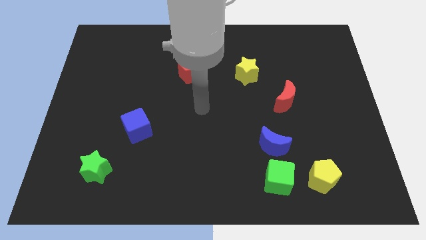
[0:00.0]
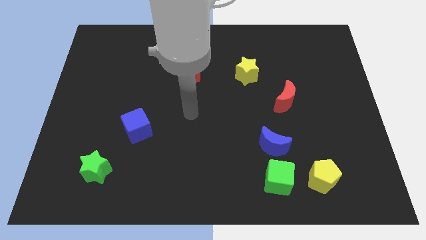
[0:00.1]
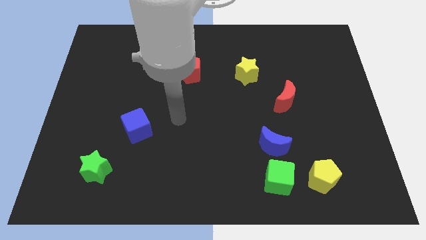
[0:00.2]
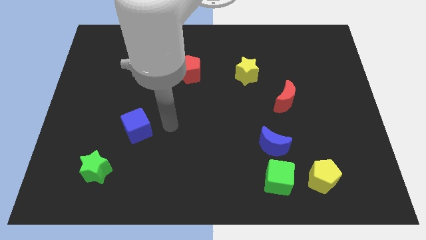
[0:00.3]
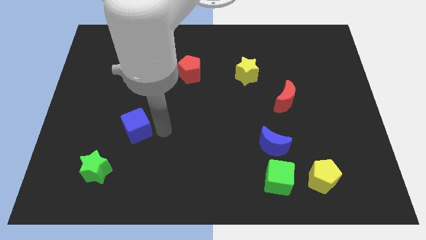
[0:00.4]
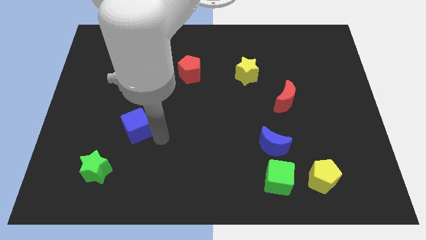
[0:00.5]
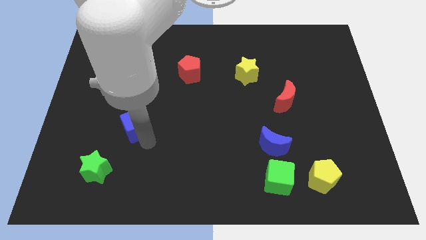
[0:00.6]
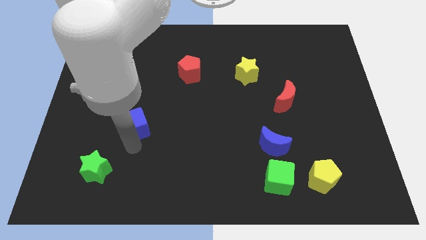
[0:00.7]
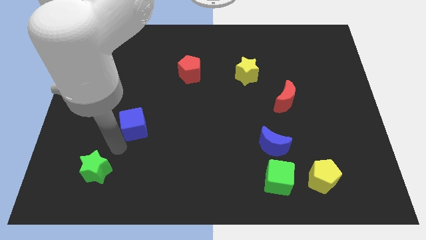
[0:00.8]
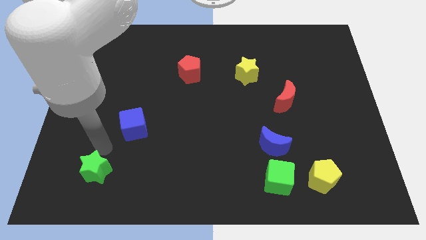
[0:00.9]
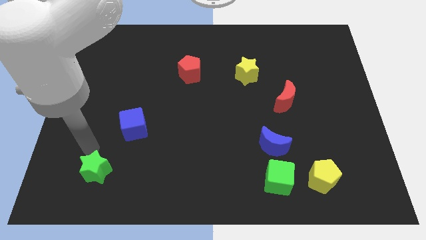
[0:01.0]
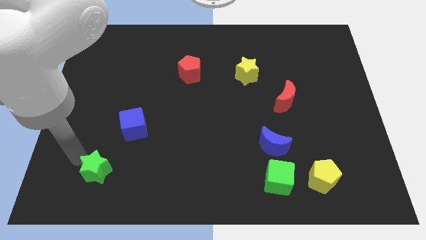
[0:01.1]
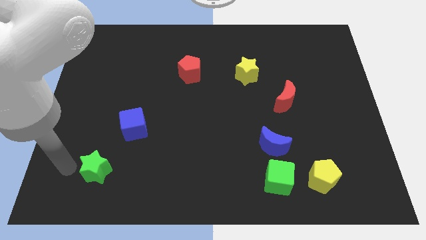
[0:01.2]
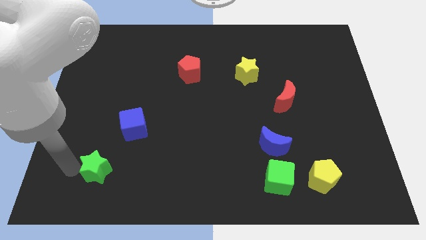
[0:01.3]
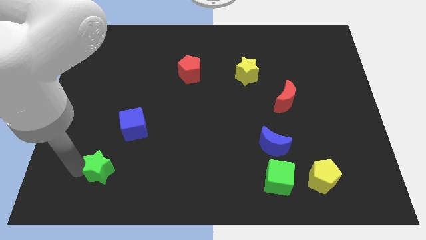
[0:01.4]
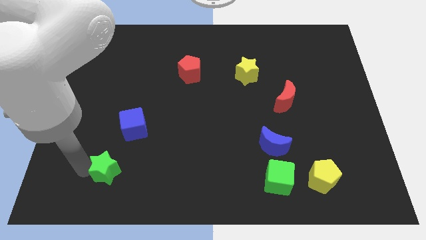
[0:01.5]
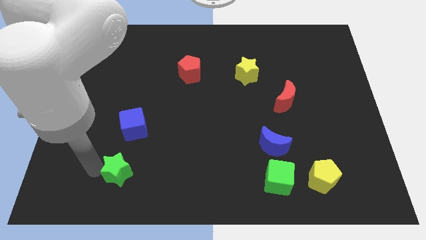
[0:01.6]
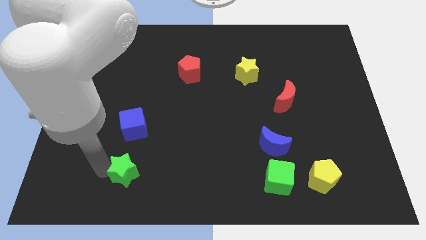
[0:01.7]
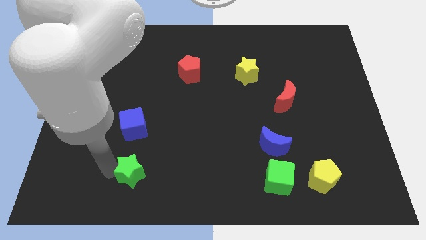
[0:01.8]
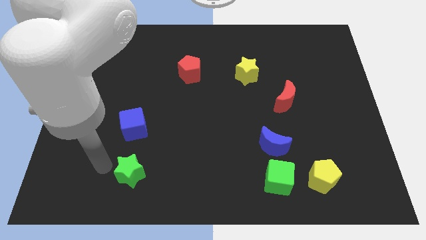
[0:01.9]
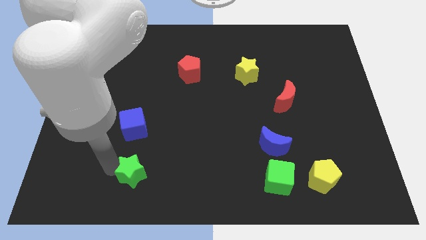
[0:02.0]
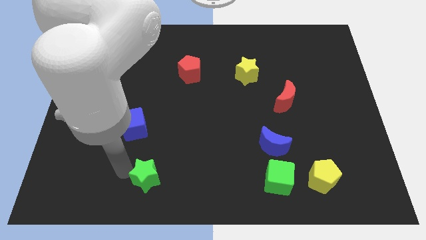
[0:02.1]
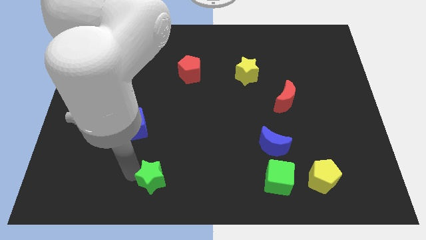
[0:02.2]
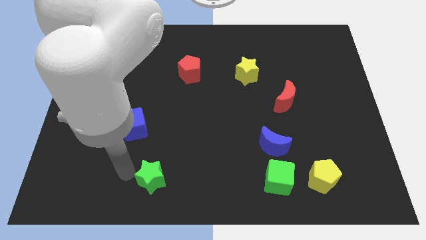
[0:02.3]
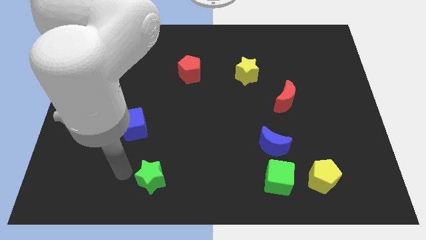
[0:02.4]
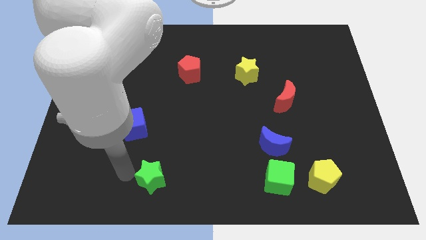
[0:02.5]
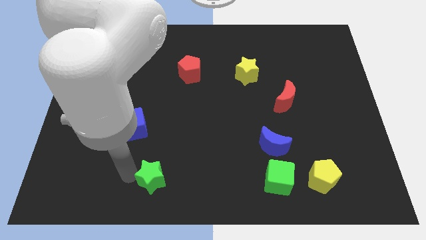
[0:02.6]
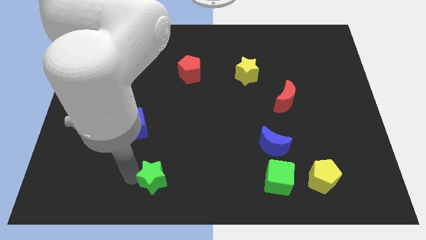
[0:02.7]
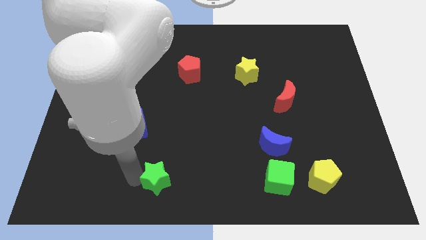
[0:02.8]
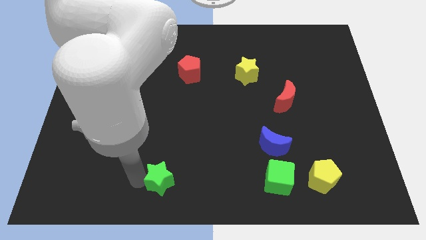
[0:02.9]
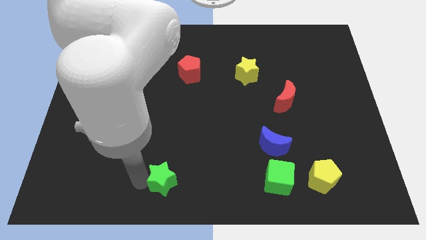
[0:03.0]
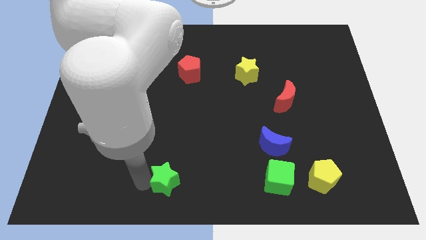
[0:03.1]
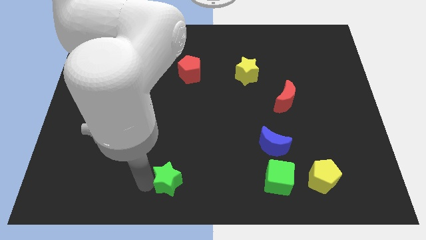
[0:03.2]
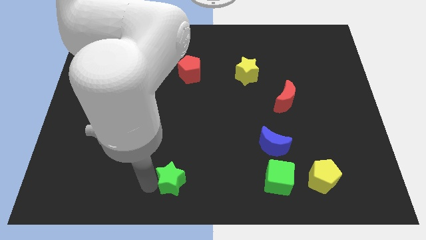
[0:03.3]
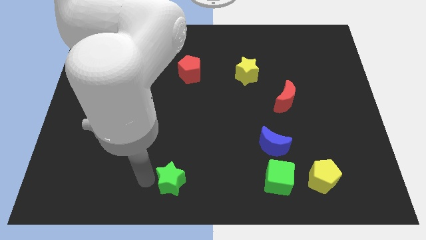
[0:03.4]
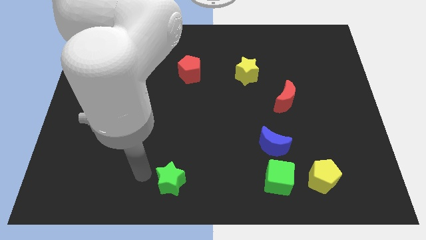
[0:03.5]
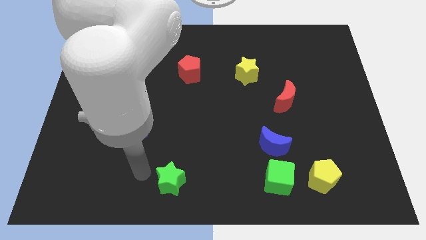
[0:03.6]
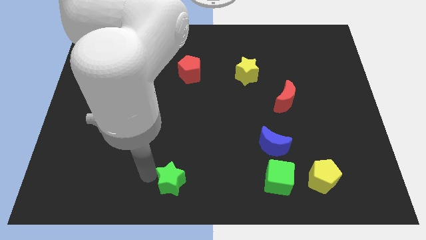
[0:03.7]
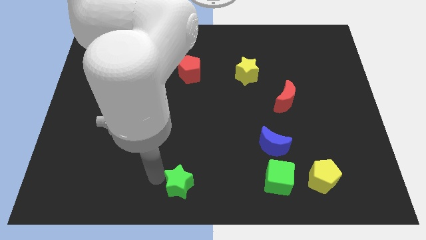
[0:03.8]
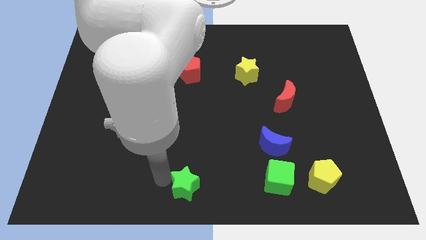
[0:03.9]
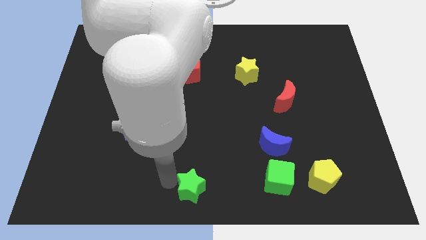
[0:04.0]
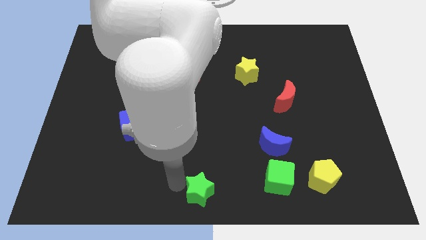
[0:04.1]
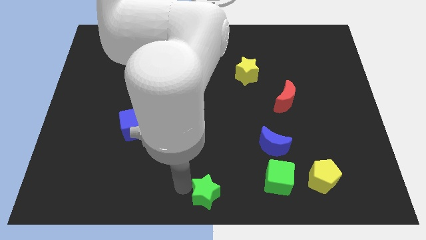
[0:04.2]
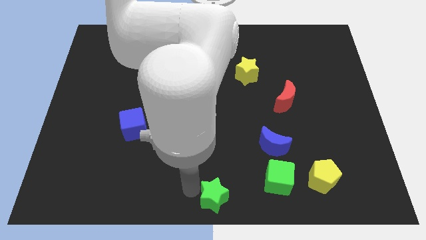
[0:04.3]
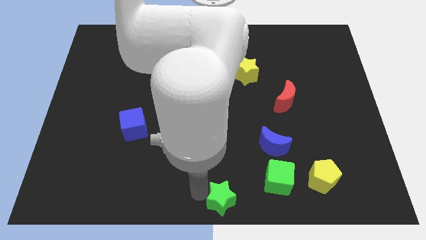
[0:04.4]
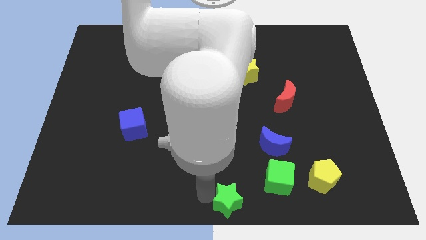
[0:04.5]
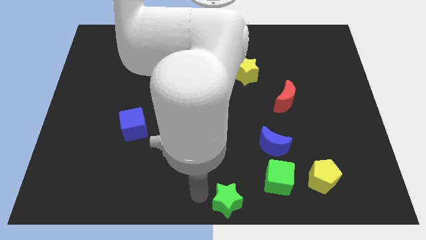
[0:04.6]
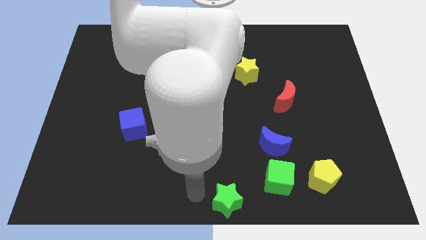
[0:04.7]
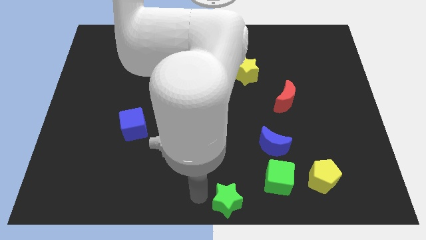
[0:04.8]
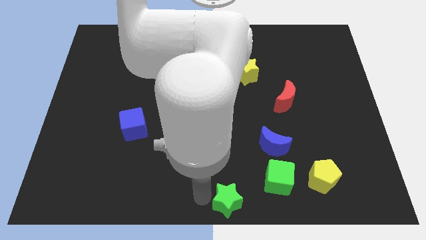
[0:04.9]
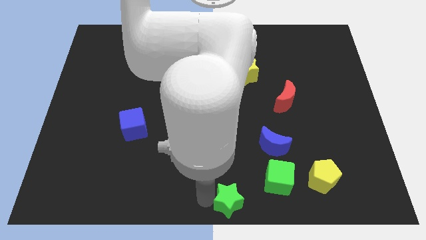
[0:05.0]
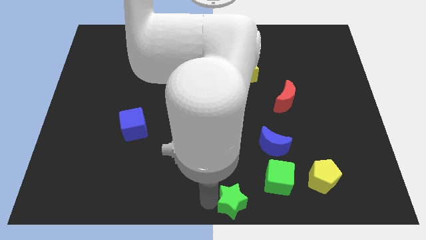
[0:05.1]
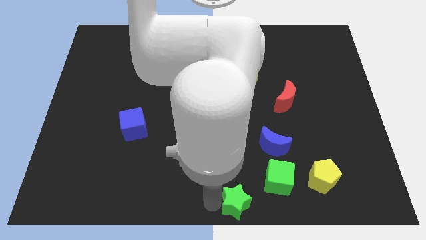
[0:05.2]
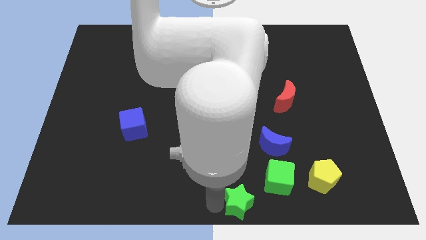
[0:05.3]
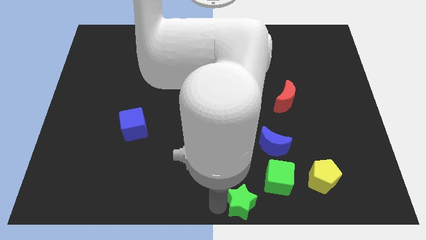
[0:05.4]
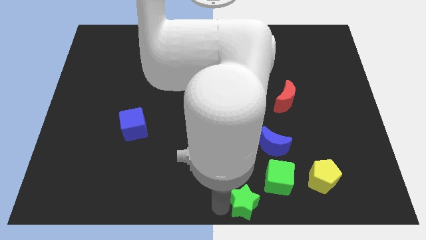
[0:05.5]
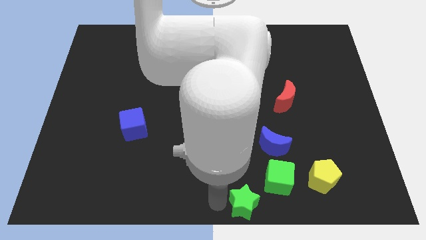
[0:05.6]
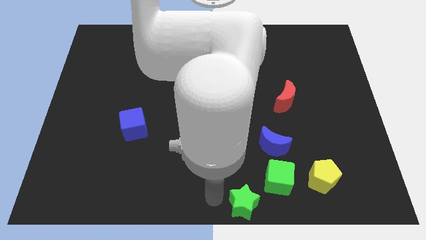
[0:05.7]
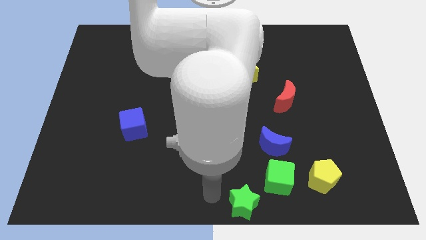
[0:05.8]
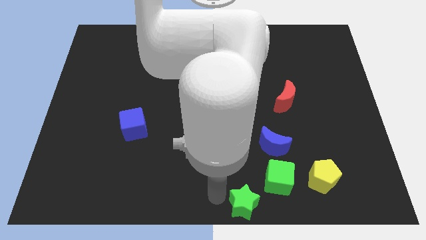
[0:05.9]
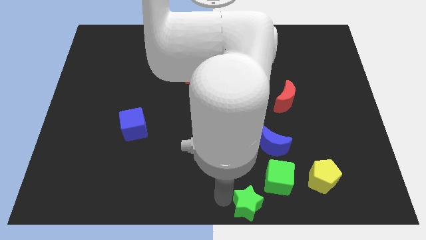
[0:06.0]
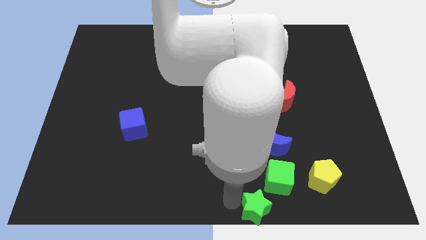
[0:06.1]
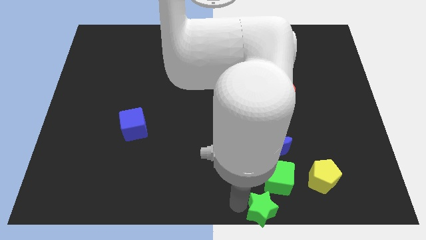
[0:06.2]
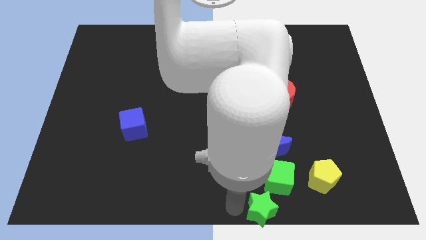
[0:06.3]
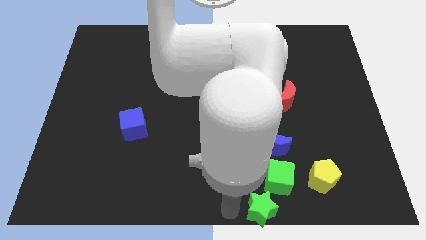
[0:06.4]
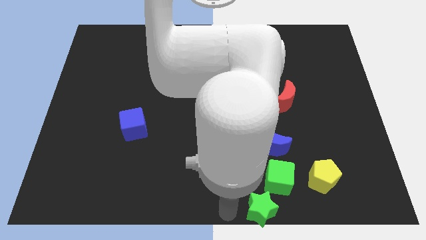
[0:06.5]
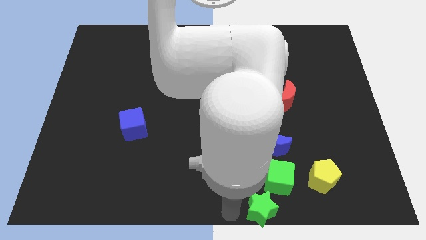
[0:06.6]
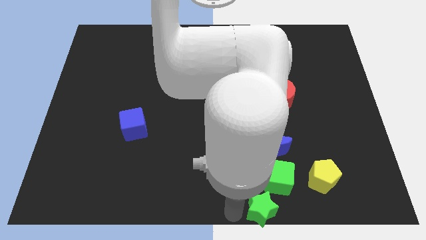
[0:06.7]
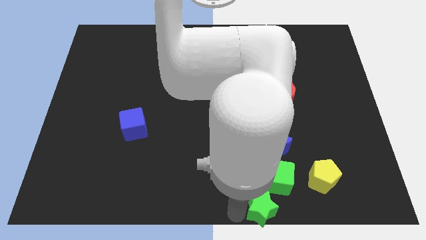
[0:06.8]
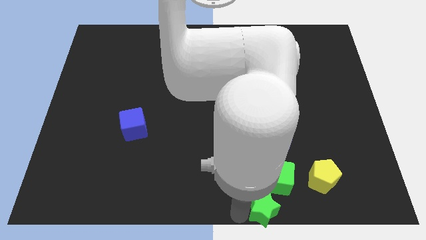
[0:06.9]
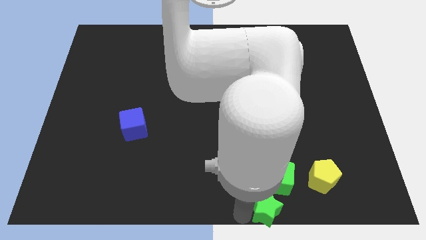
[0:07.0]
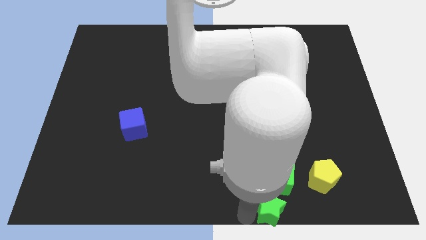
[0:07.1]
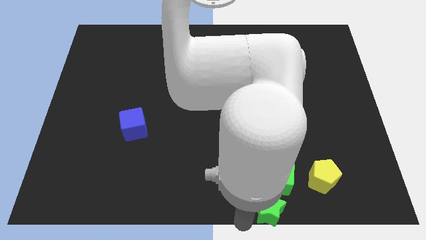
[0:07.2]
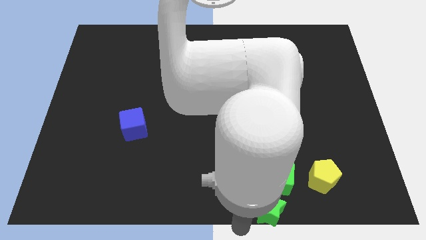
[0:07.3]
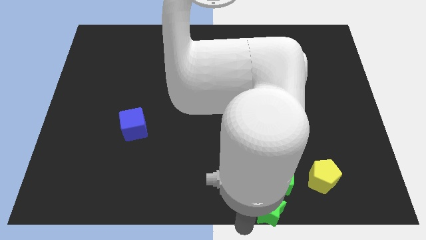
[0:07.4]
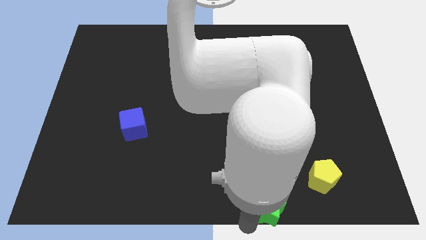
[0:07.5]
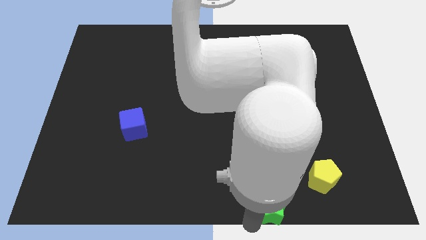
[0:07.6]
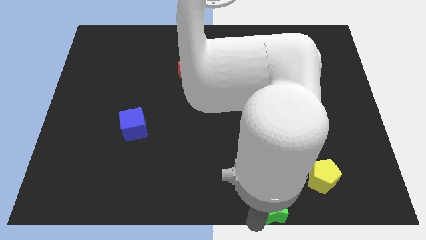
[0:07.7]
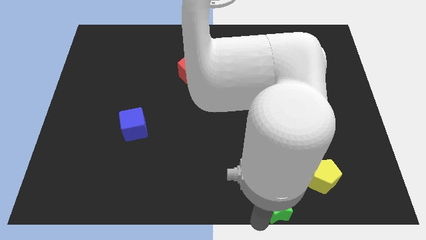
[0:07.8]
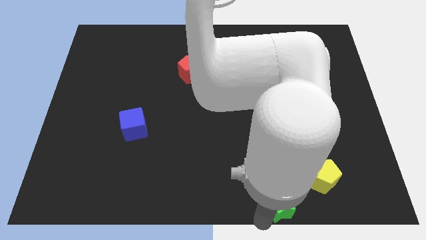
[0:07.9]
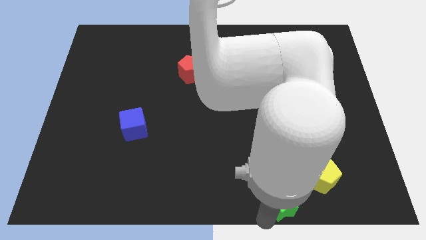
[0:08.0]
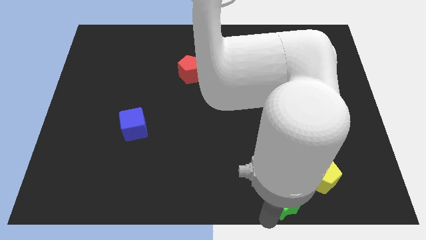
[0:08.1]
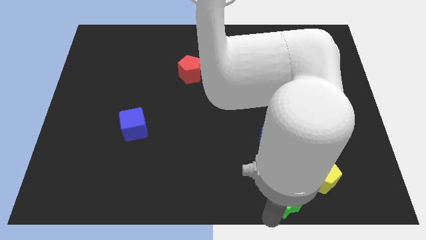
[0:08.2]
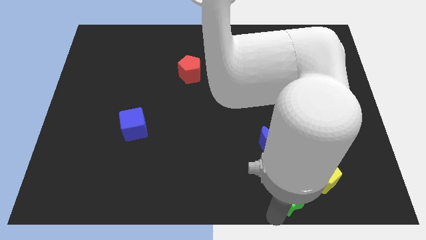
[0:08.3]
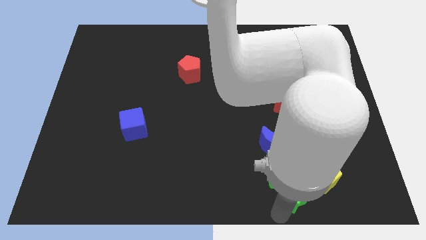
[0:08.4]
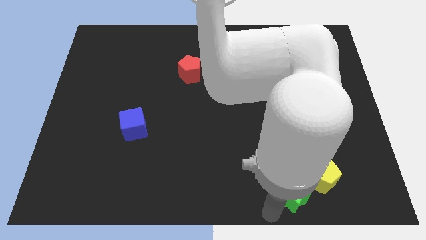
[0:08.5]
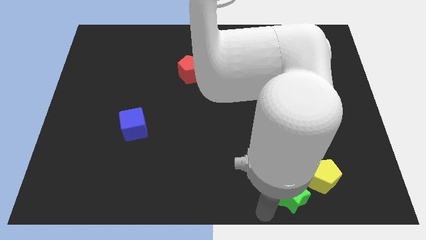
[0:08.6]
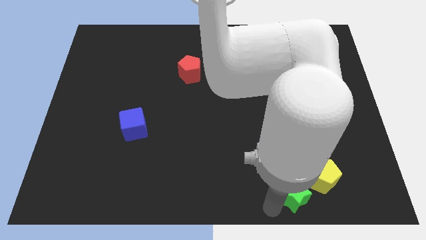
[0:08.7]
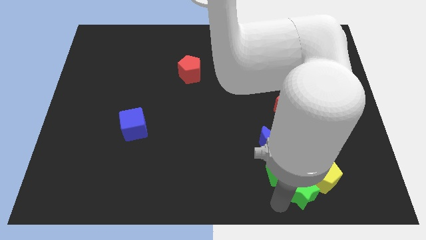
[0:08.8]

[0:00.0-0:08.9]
slide the green star to the yellow pentagon
